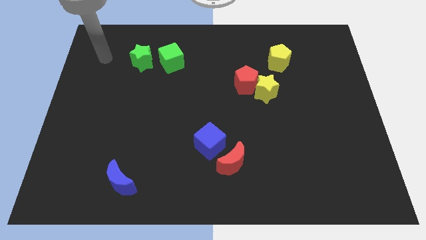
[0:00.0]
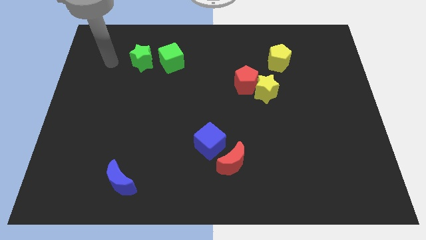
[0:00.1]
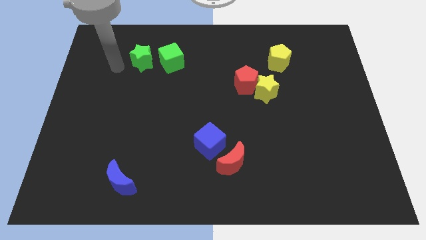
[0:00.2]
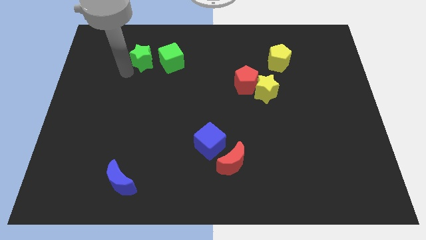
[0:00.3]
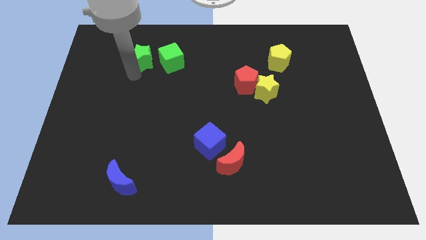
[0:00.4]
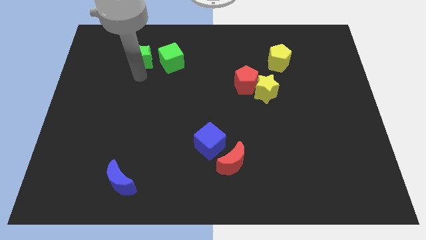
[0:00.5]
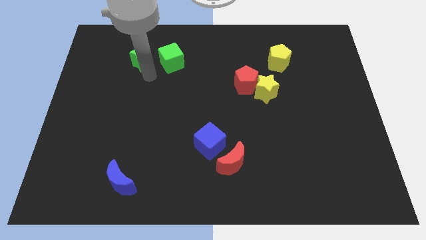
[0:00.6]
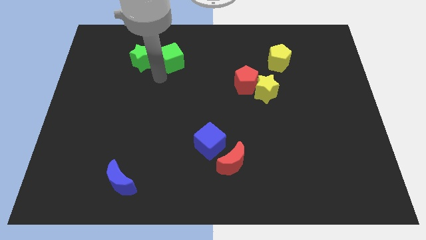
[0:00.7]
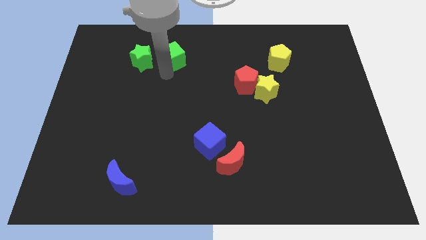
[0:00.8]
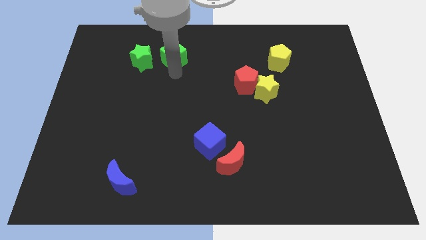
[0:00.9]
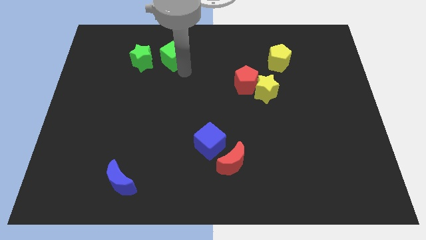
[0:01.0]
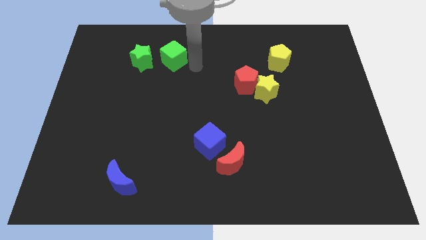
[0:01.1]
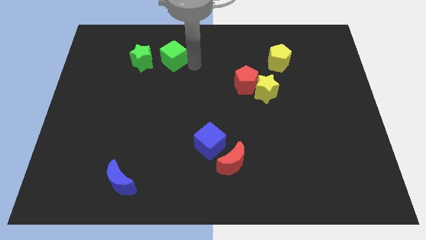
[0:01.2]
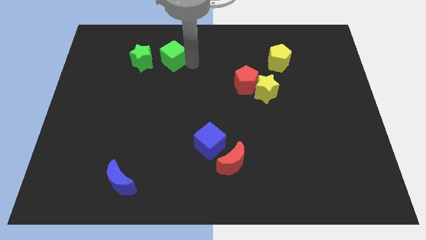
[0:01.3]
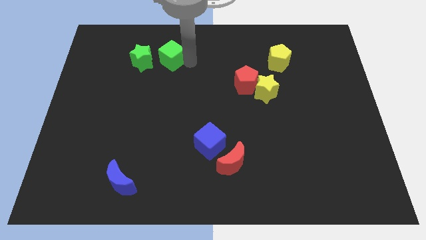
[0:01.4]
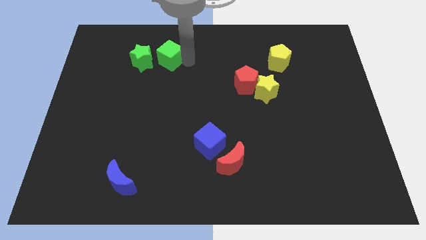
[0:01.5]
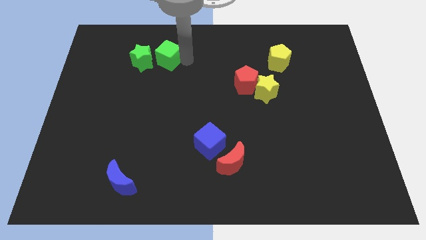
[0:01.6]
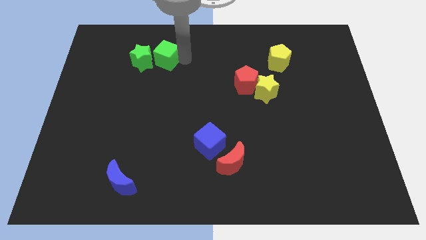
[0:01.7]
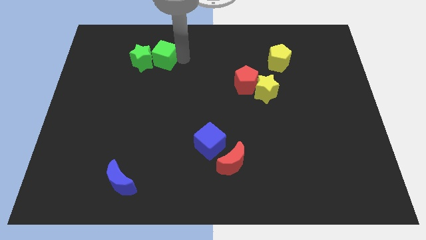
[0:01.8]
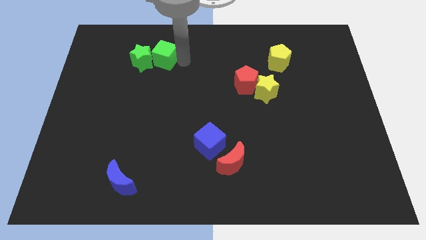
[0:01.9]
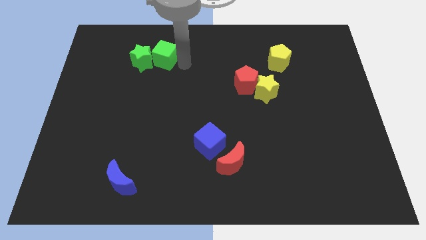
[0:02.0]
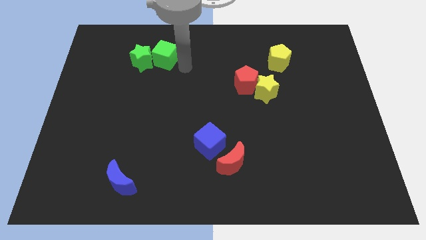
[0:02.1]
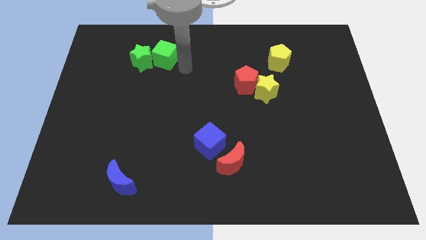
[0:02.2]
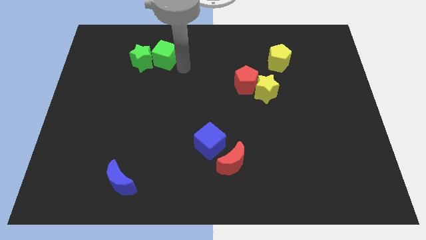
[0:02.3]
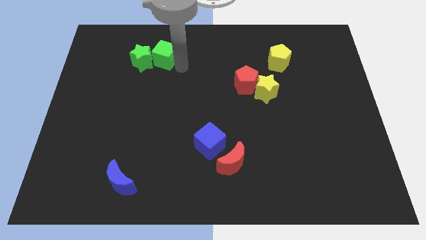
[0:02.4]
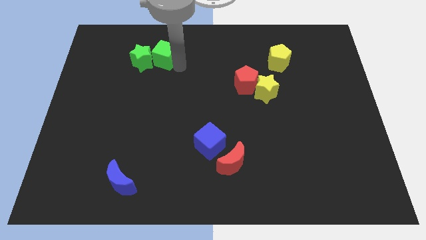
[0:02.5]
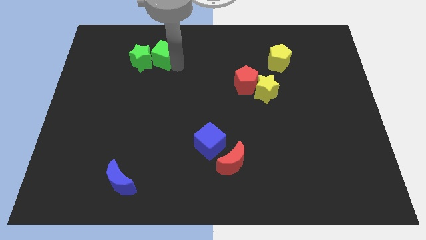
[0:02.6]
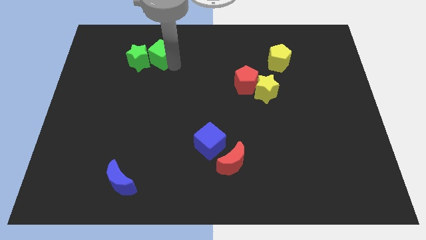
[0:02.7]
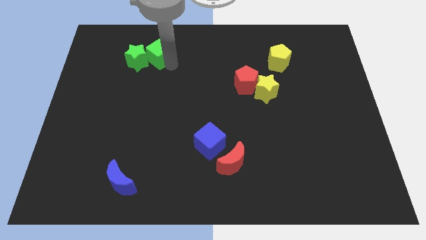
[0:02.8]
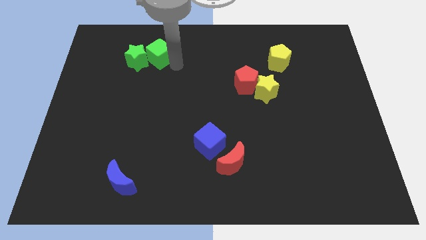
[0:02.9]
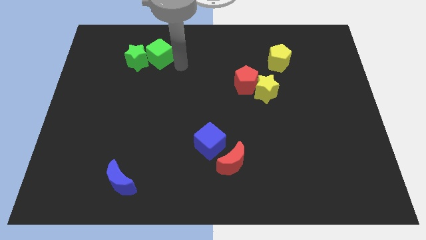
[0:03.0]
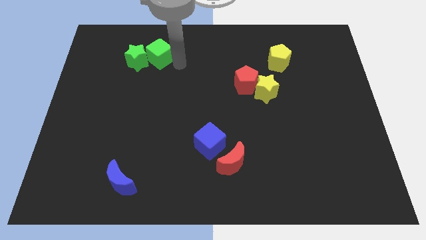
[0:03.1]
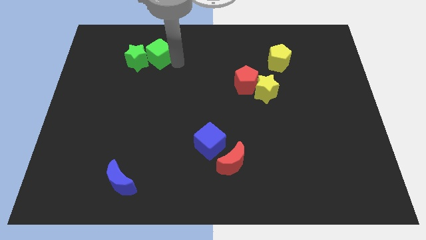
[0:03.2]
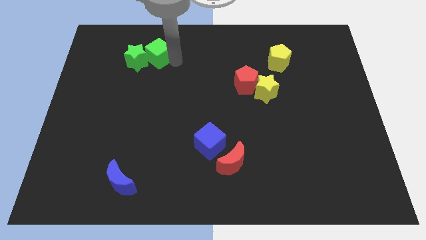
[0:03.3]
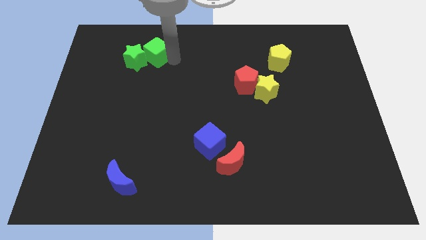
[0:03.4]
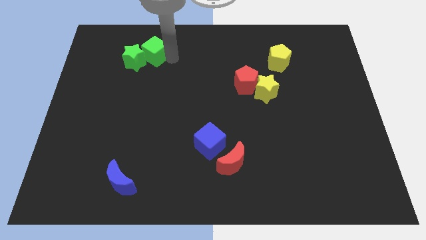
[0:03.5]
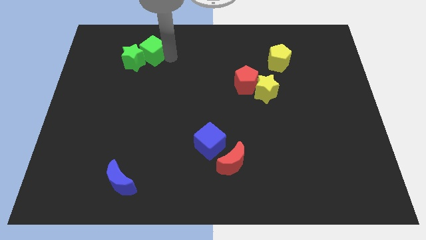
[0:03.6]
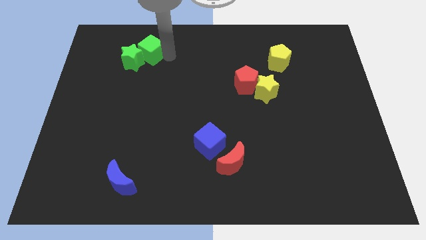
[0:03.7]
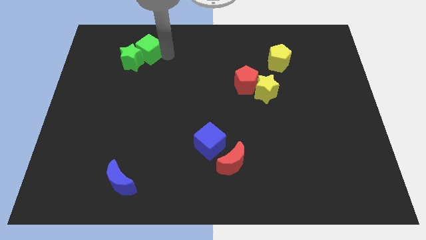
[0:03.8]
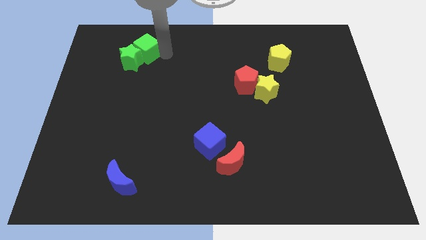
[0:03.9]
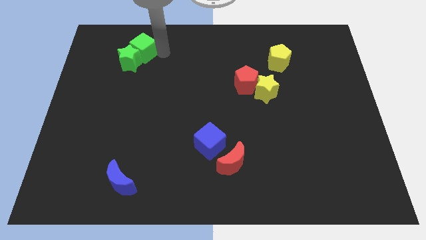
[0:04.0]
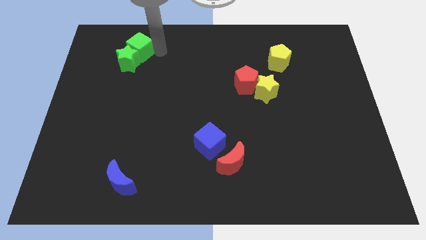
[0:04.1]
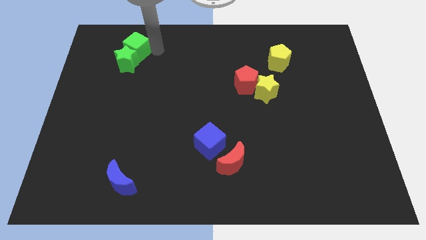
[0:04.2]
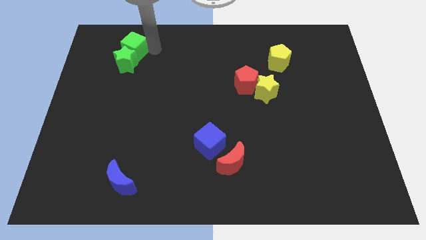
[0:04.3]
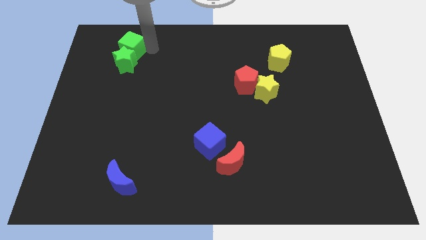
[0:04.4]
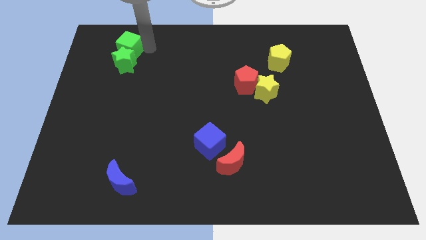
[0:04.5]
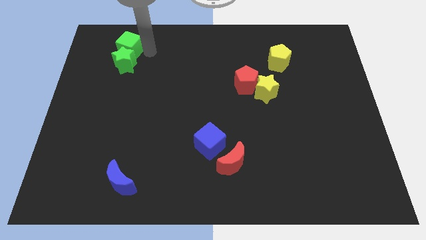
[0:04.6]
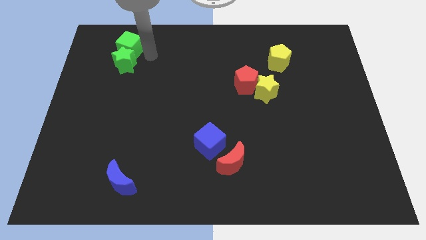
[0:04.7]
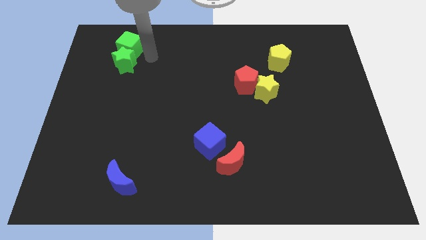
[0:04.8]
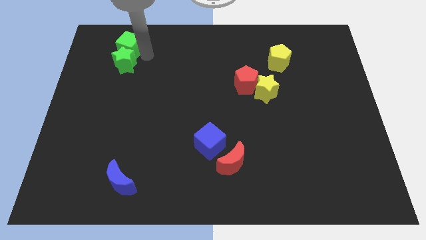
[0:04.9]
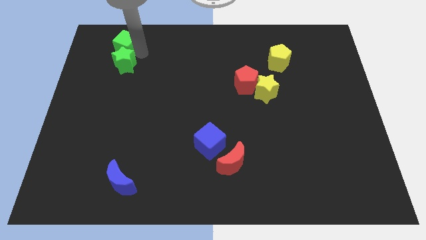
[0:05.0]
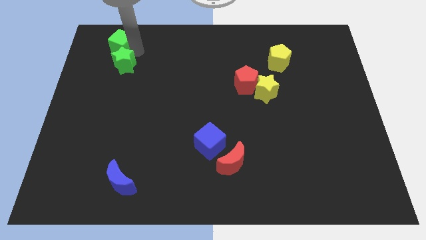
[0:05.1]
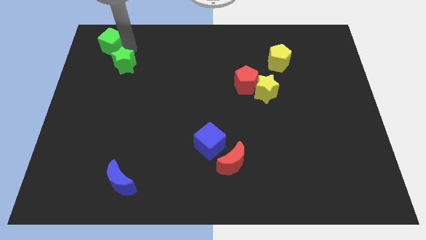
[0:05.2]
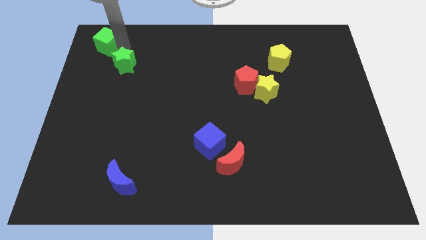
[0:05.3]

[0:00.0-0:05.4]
slide the green cube to the top left corner

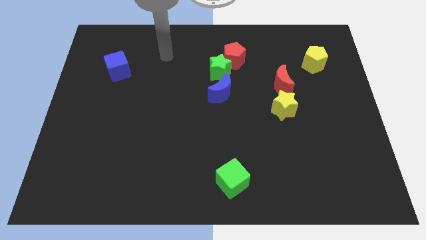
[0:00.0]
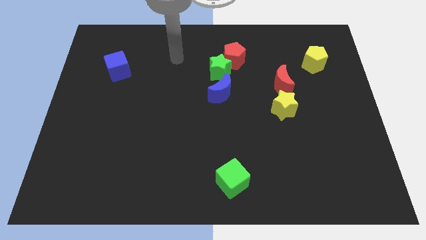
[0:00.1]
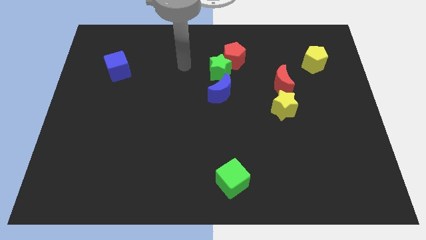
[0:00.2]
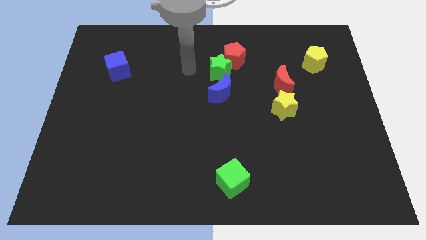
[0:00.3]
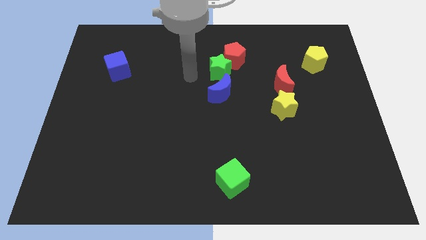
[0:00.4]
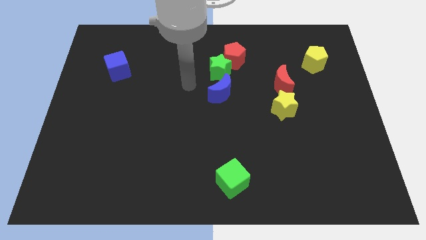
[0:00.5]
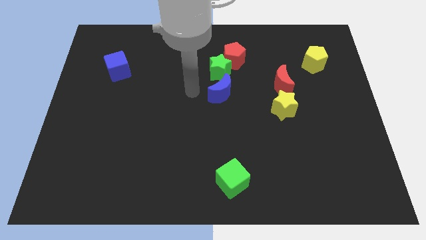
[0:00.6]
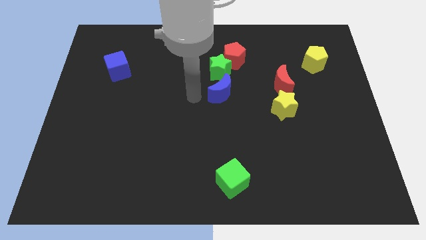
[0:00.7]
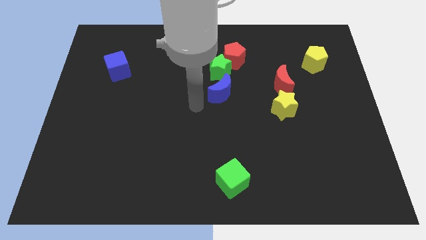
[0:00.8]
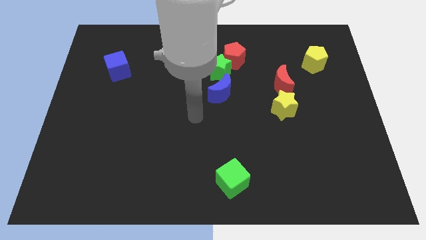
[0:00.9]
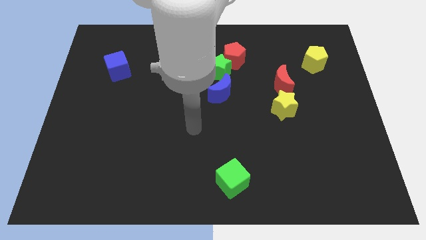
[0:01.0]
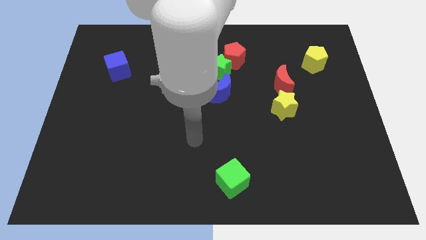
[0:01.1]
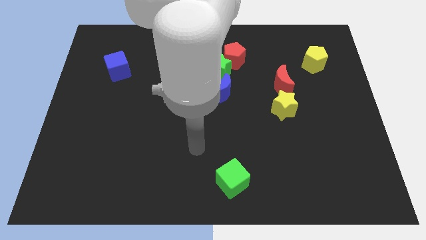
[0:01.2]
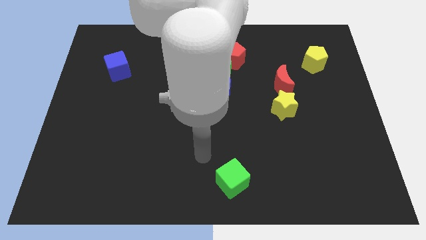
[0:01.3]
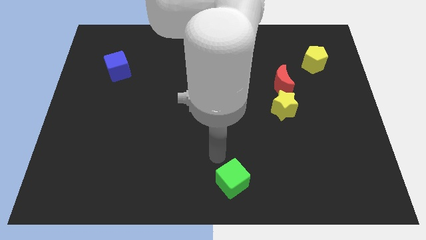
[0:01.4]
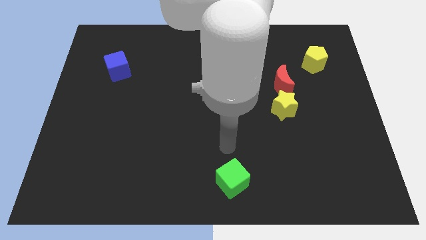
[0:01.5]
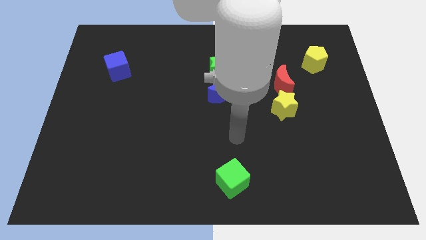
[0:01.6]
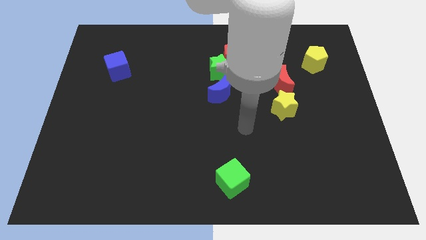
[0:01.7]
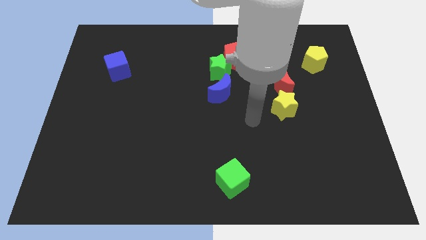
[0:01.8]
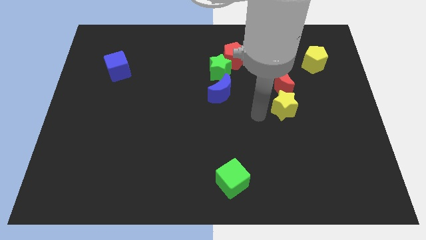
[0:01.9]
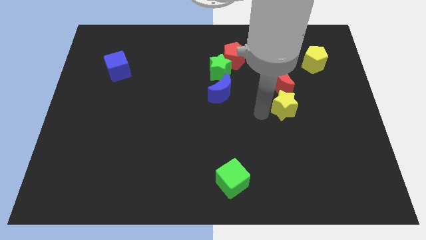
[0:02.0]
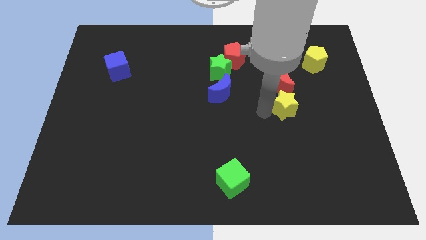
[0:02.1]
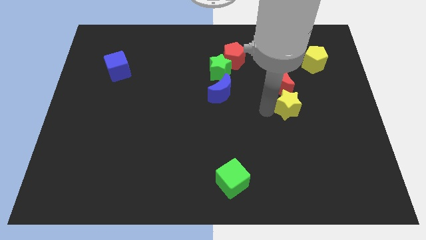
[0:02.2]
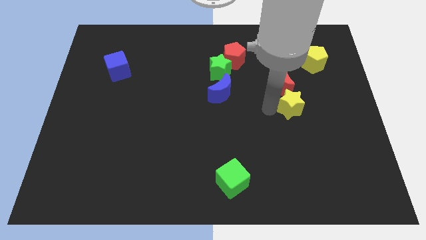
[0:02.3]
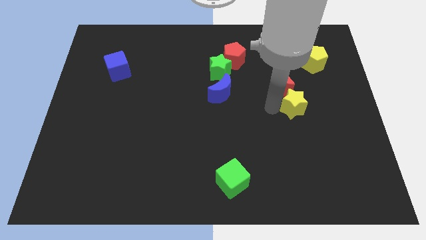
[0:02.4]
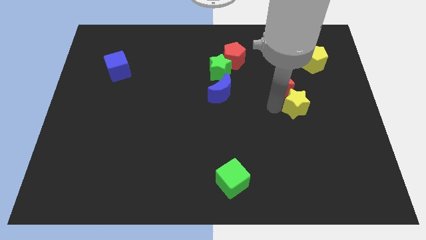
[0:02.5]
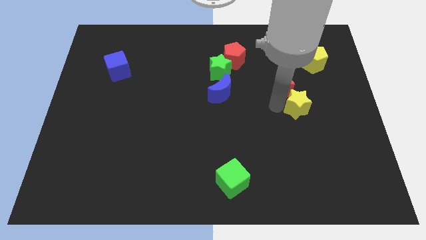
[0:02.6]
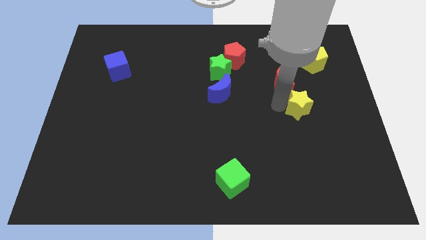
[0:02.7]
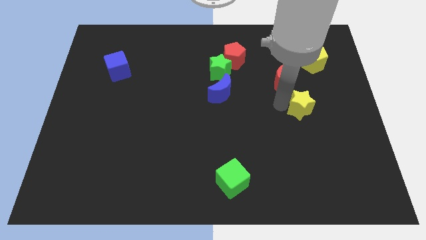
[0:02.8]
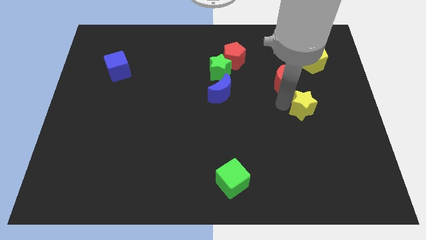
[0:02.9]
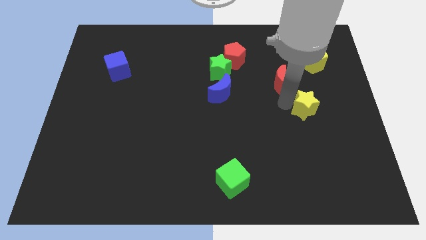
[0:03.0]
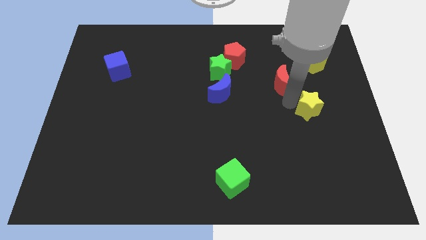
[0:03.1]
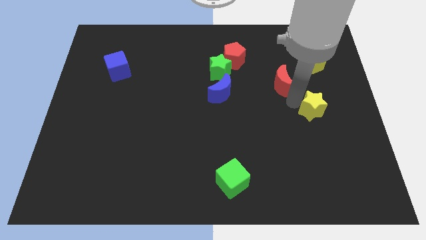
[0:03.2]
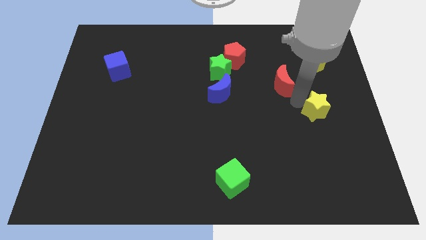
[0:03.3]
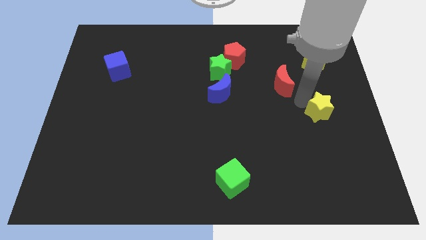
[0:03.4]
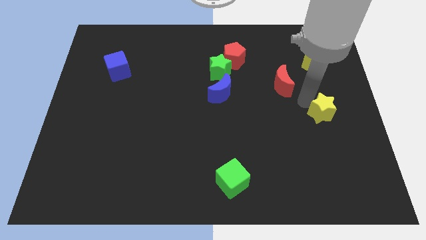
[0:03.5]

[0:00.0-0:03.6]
put the yellow star to the center right
